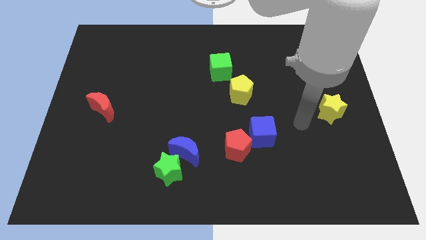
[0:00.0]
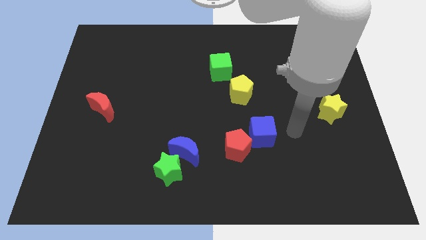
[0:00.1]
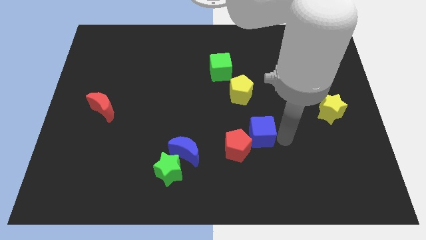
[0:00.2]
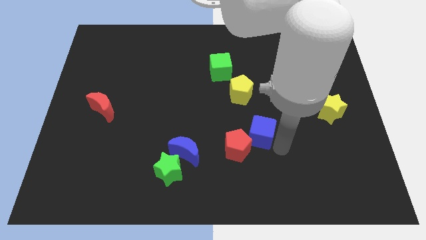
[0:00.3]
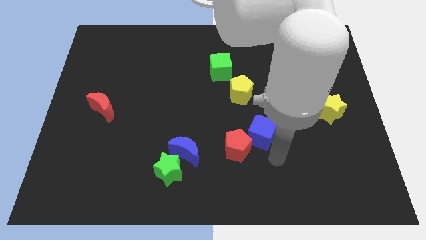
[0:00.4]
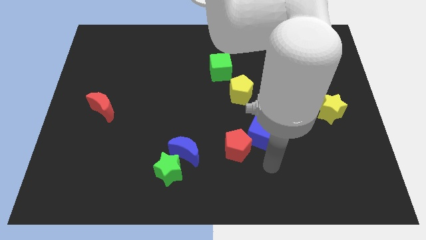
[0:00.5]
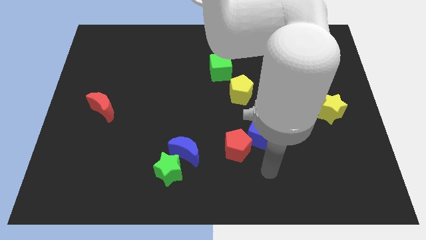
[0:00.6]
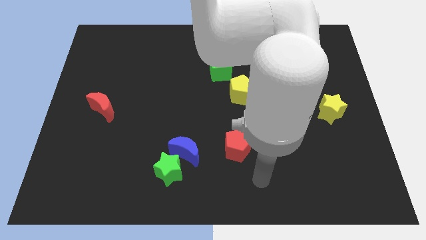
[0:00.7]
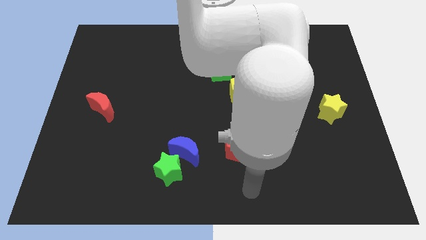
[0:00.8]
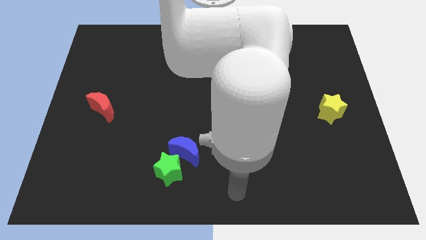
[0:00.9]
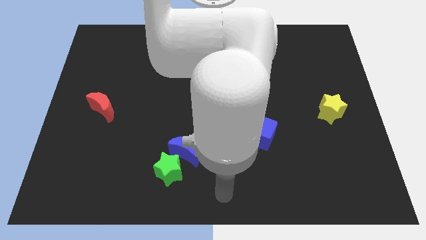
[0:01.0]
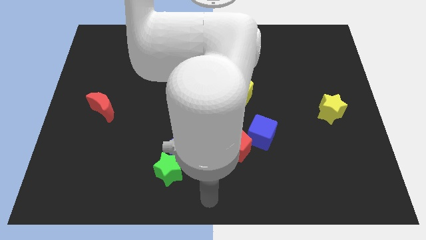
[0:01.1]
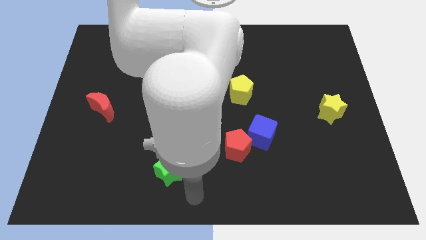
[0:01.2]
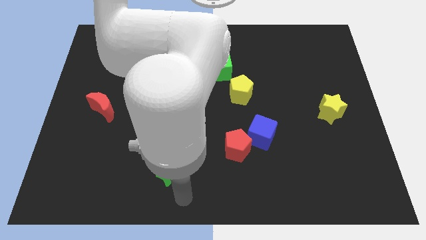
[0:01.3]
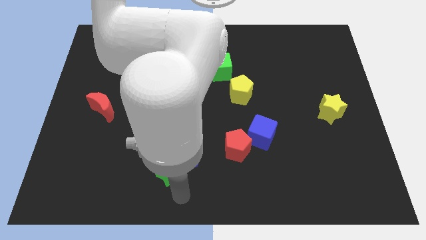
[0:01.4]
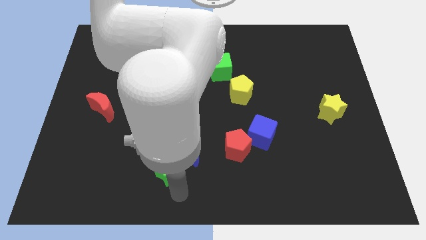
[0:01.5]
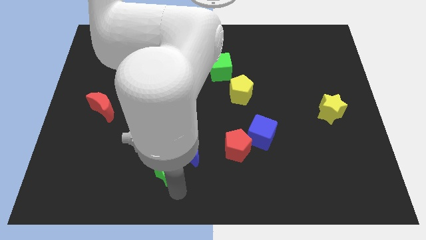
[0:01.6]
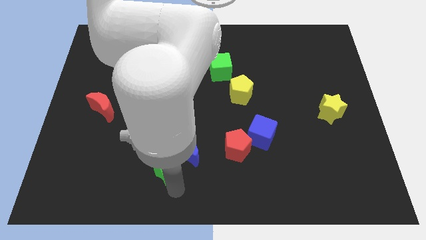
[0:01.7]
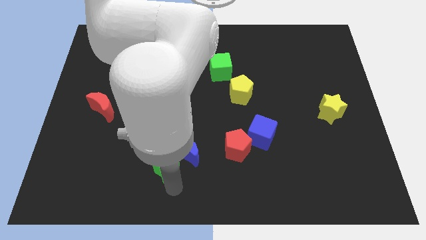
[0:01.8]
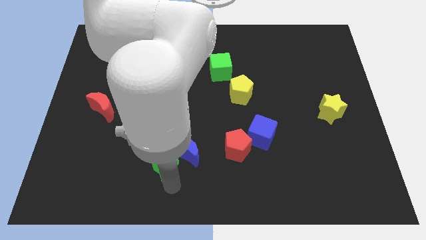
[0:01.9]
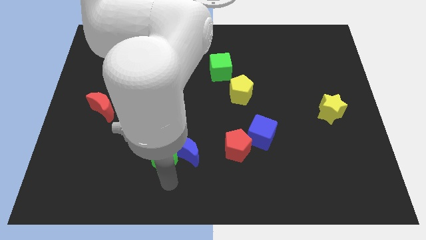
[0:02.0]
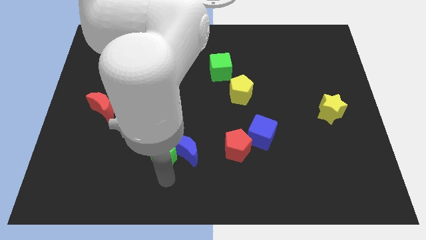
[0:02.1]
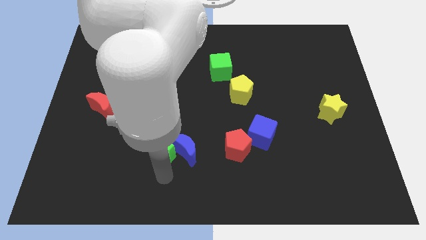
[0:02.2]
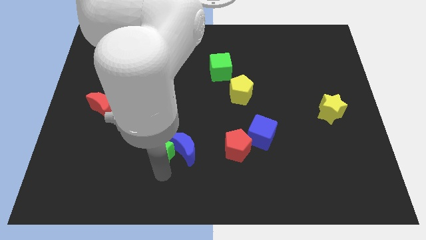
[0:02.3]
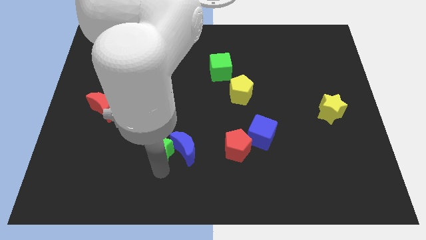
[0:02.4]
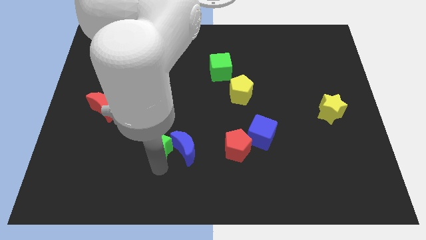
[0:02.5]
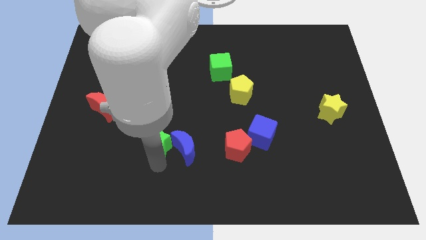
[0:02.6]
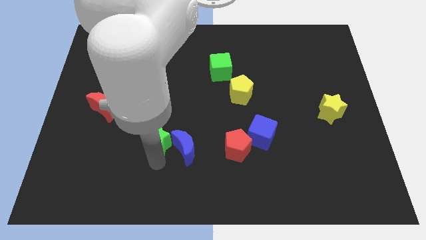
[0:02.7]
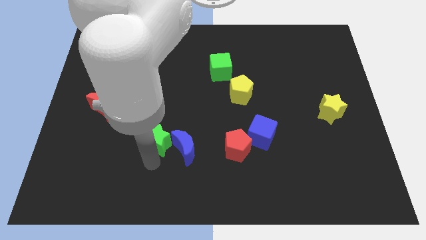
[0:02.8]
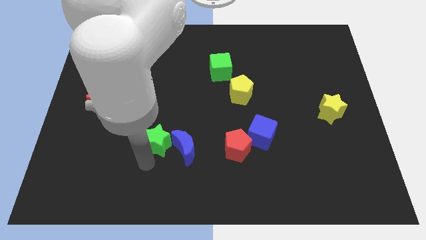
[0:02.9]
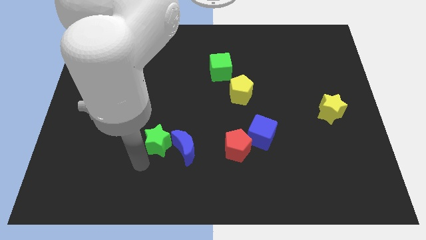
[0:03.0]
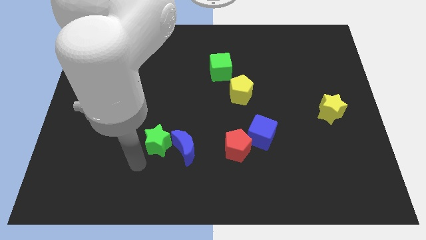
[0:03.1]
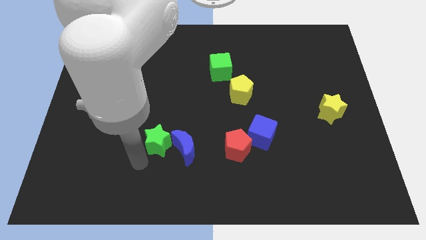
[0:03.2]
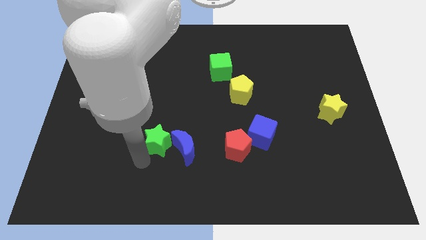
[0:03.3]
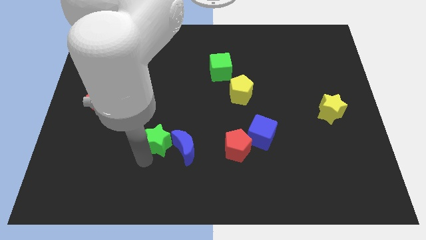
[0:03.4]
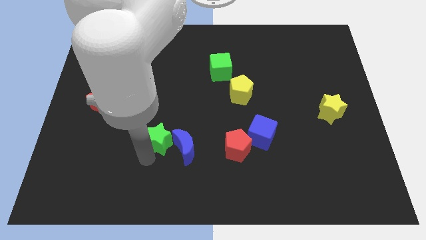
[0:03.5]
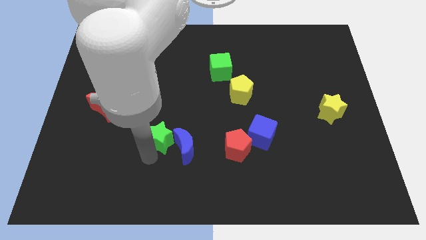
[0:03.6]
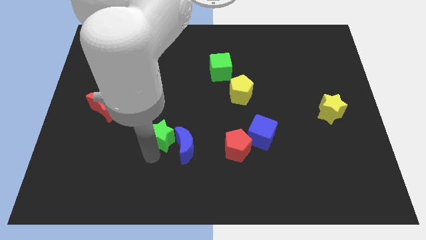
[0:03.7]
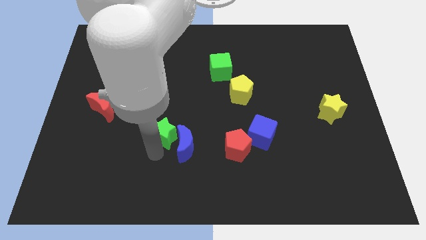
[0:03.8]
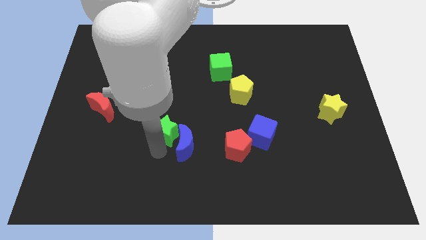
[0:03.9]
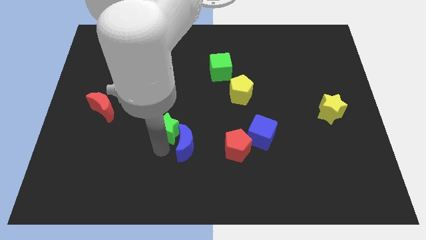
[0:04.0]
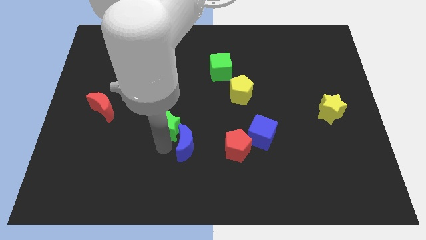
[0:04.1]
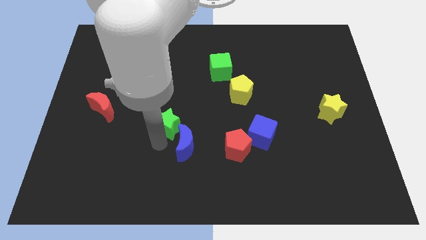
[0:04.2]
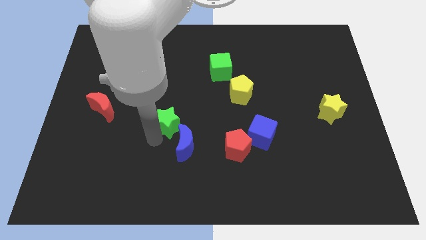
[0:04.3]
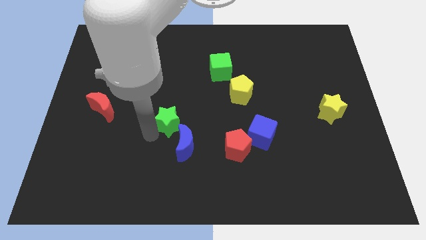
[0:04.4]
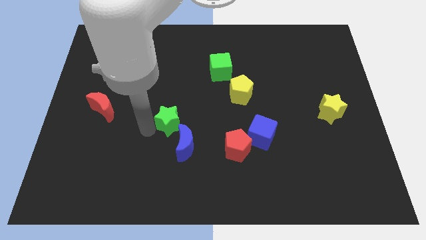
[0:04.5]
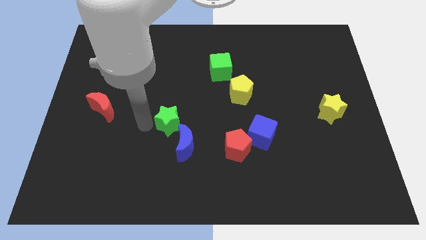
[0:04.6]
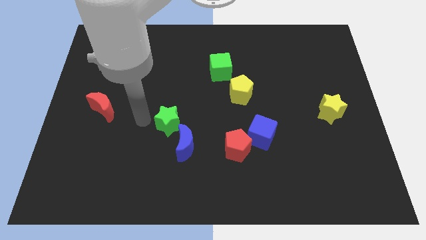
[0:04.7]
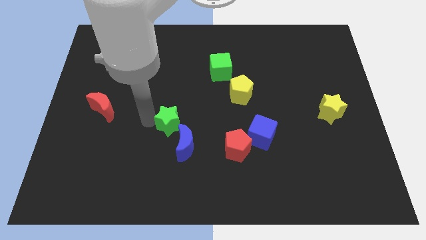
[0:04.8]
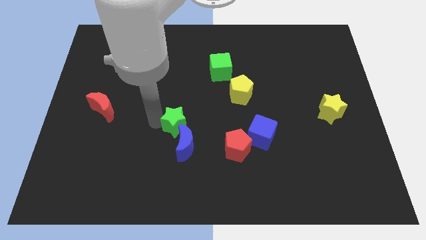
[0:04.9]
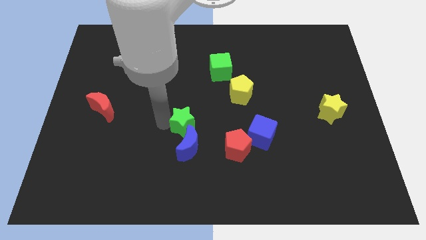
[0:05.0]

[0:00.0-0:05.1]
slide the green star upwards and to the right a bit

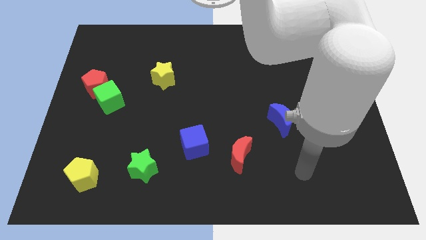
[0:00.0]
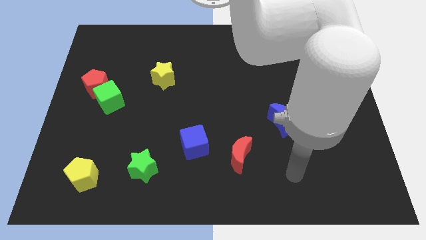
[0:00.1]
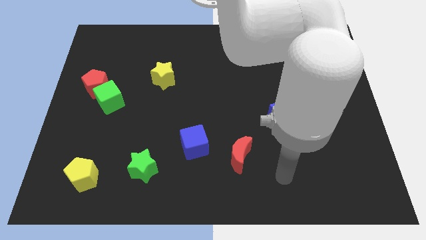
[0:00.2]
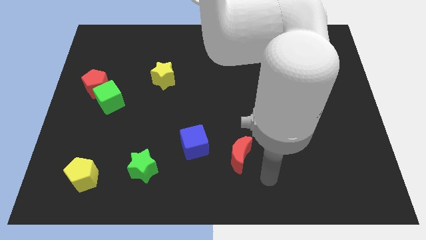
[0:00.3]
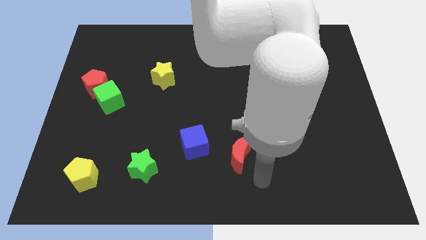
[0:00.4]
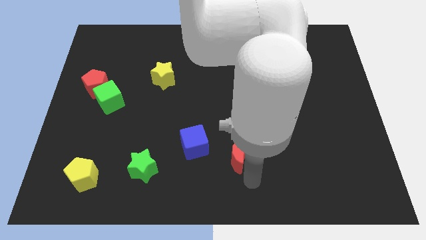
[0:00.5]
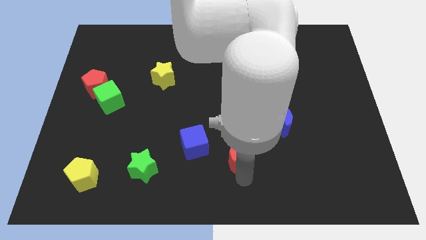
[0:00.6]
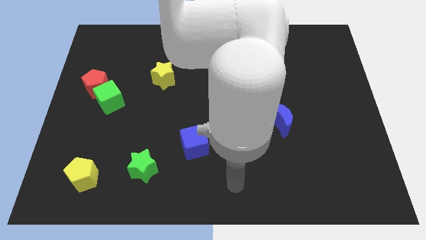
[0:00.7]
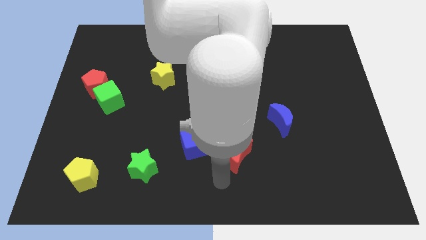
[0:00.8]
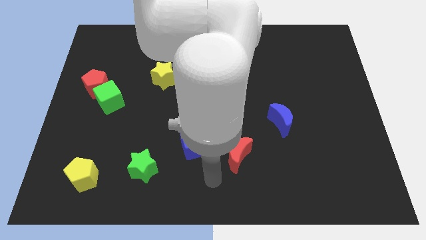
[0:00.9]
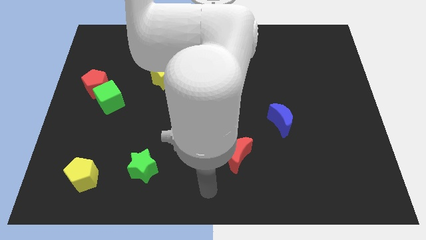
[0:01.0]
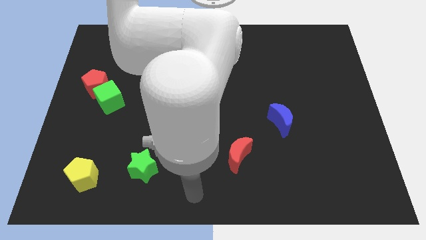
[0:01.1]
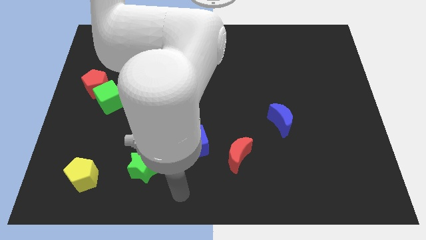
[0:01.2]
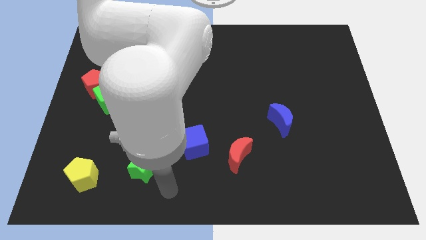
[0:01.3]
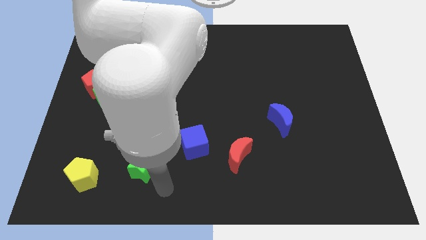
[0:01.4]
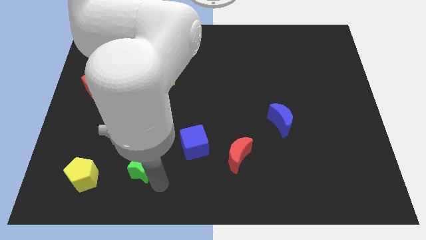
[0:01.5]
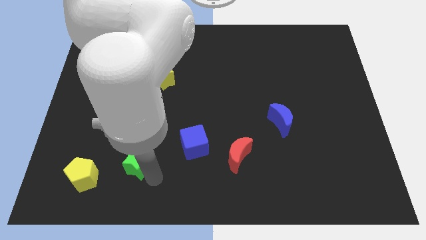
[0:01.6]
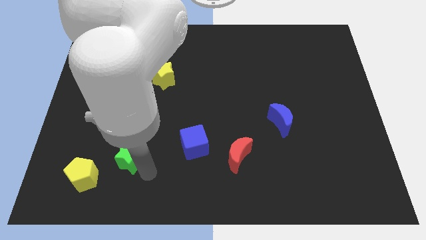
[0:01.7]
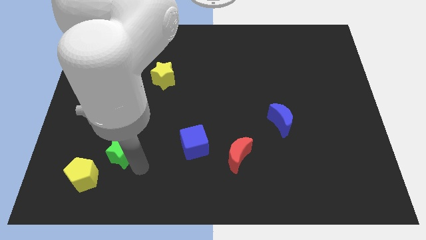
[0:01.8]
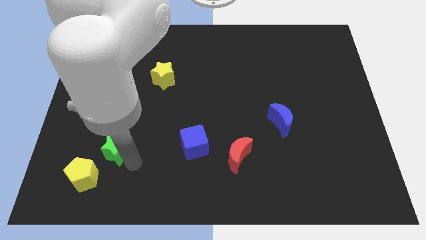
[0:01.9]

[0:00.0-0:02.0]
slightly move the green star up and then left

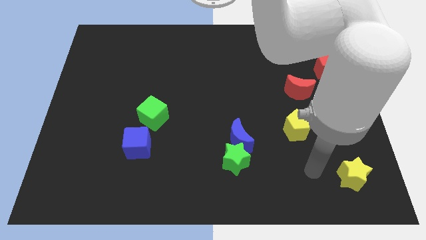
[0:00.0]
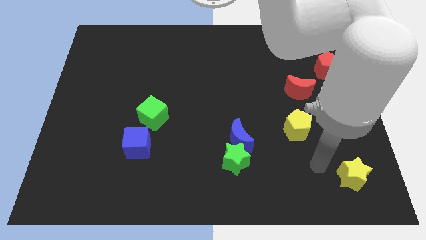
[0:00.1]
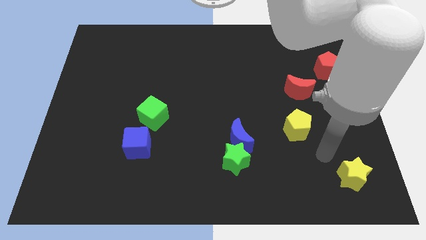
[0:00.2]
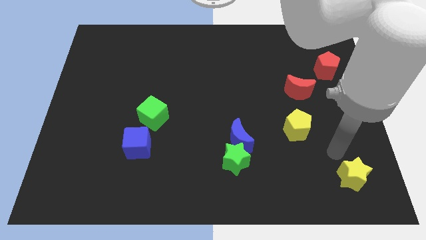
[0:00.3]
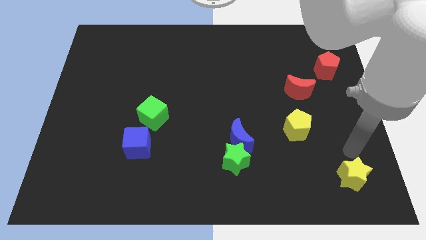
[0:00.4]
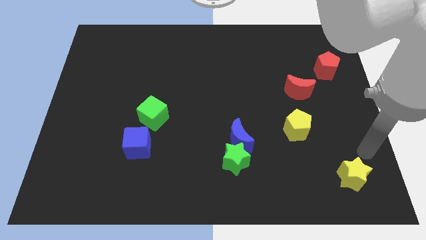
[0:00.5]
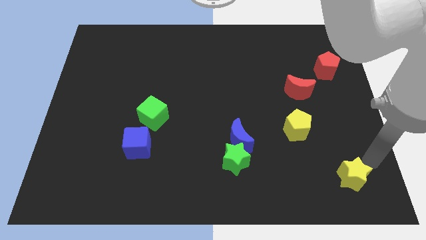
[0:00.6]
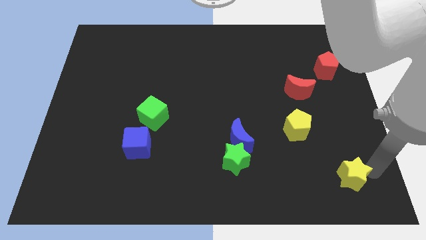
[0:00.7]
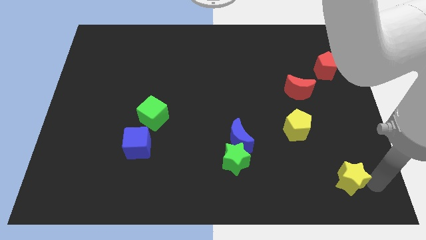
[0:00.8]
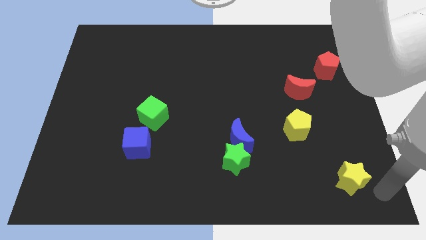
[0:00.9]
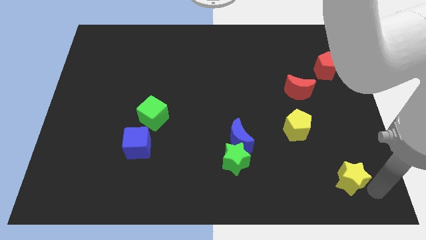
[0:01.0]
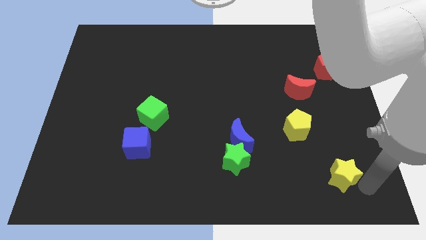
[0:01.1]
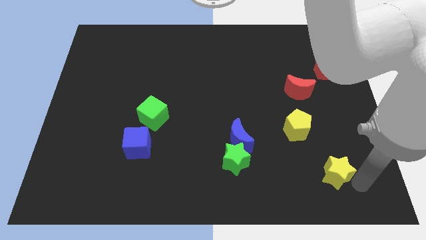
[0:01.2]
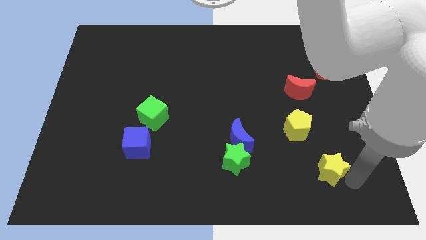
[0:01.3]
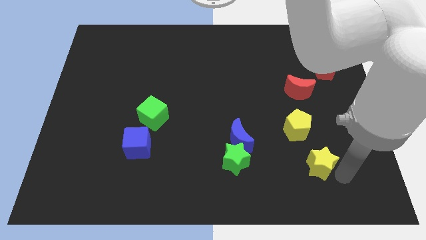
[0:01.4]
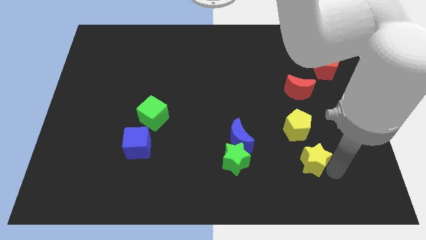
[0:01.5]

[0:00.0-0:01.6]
slide the yellow star up and then to the left slightly
